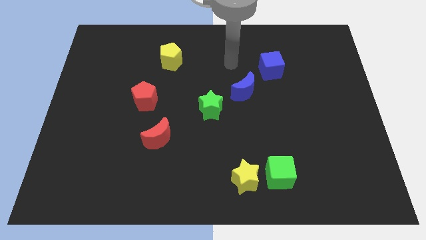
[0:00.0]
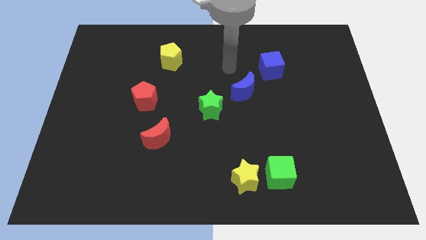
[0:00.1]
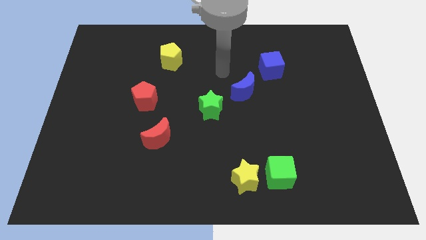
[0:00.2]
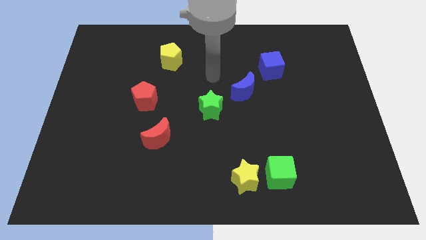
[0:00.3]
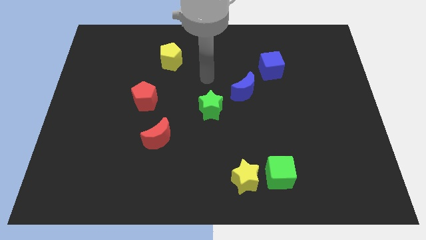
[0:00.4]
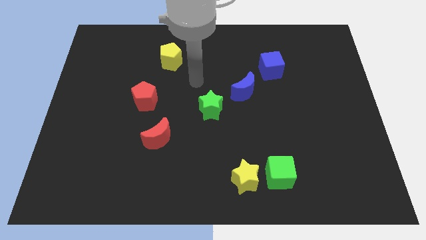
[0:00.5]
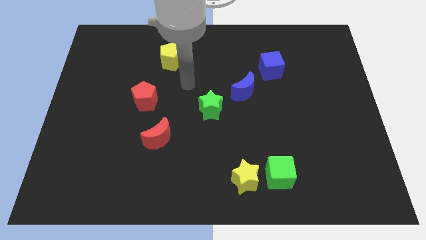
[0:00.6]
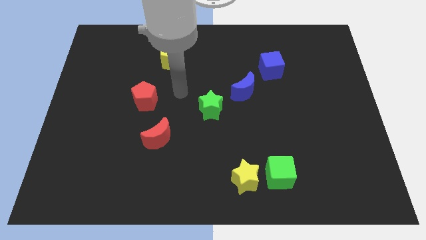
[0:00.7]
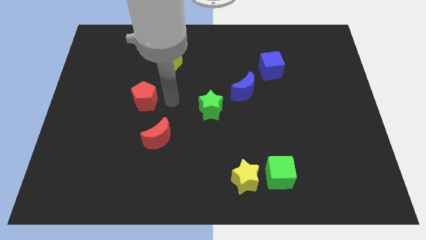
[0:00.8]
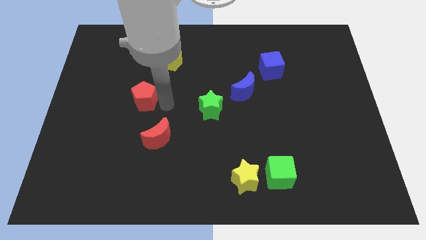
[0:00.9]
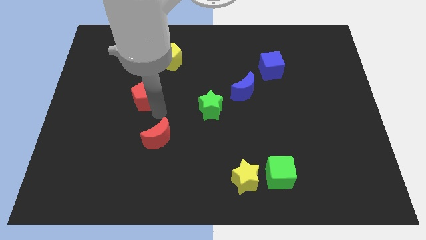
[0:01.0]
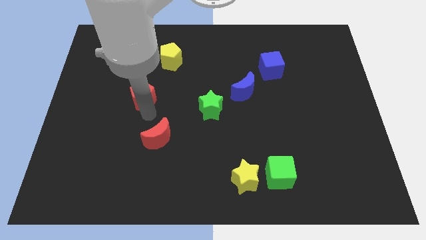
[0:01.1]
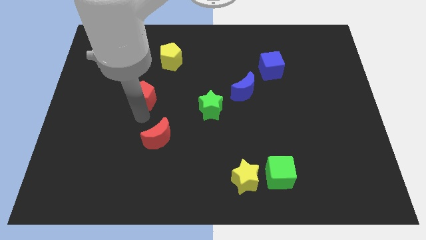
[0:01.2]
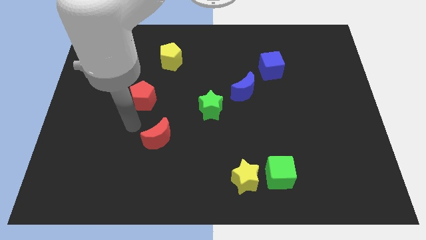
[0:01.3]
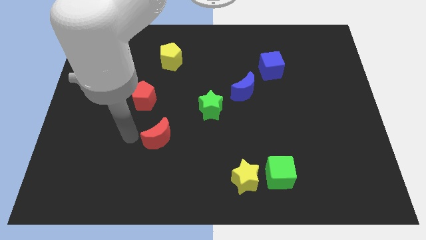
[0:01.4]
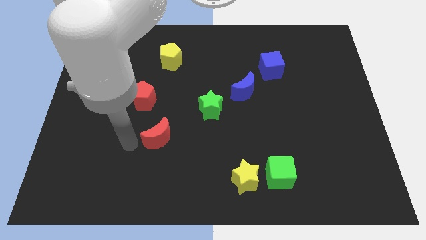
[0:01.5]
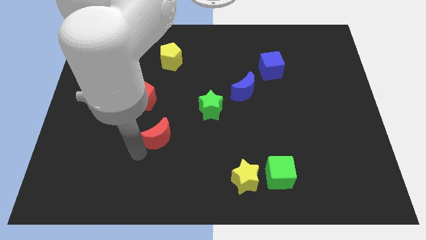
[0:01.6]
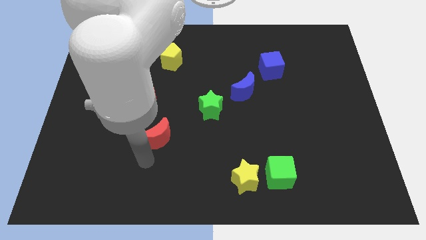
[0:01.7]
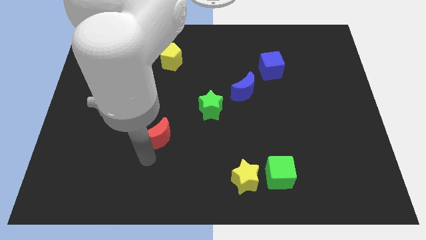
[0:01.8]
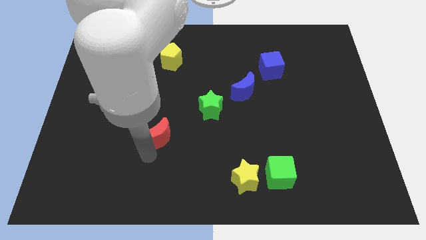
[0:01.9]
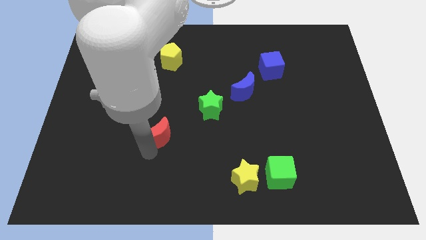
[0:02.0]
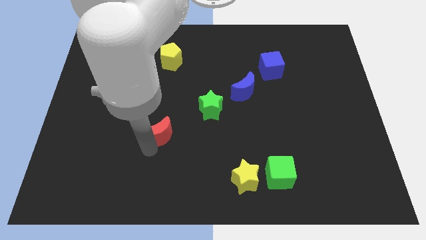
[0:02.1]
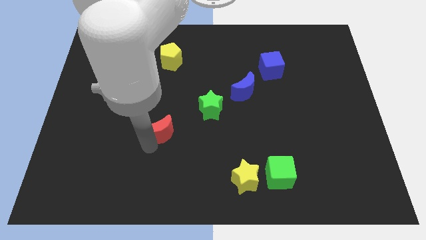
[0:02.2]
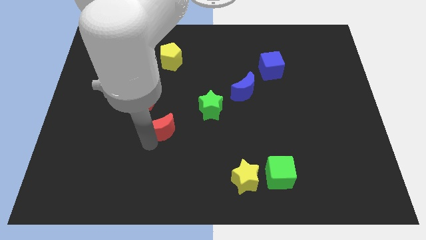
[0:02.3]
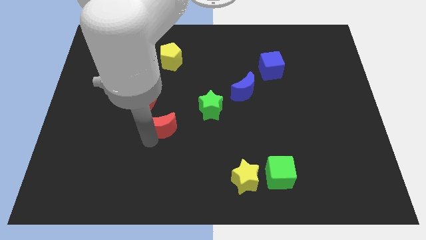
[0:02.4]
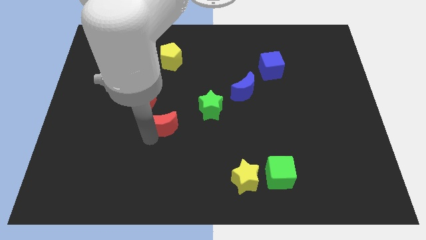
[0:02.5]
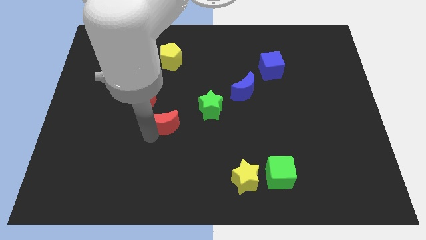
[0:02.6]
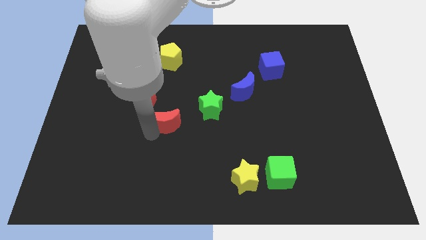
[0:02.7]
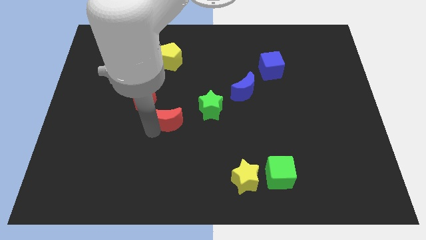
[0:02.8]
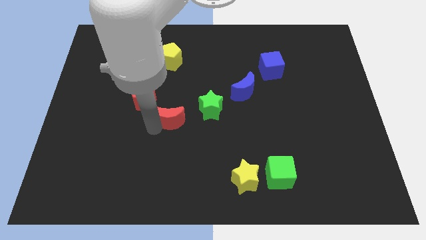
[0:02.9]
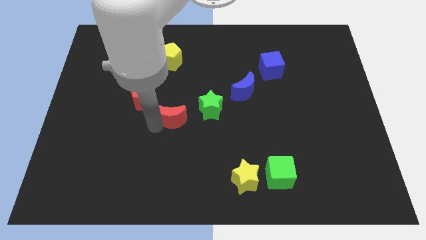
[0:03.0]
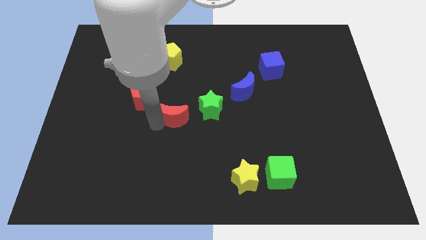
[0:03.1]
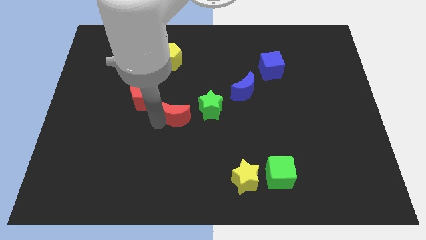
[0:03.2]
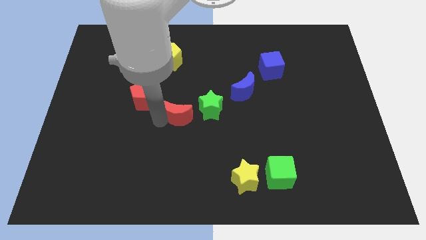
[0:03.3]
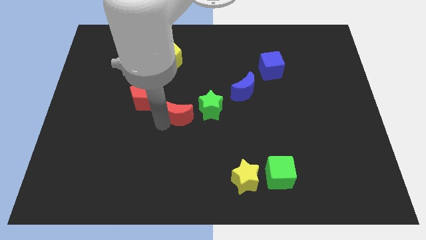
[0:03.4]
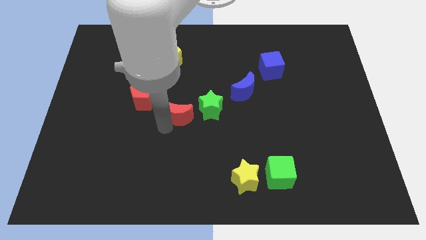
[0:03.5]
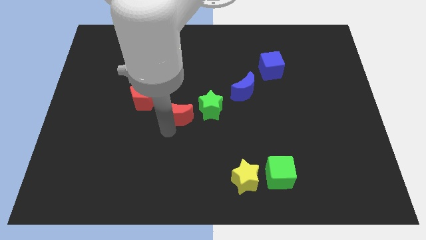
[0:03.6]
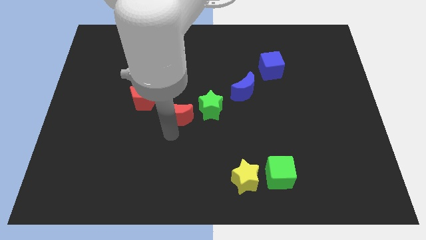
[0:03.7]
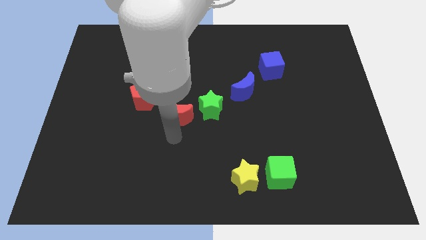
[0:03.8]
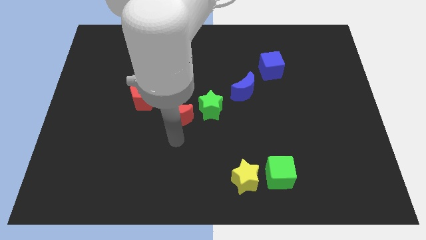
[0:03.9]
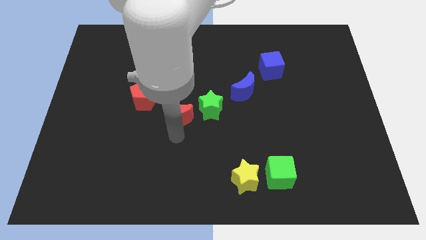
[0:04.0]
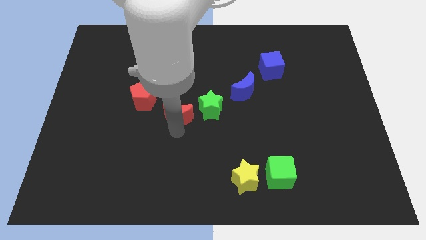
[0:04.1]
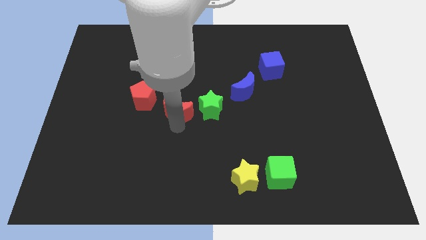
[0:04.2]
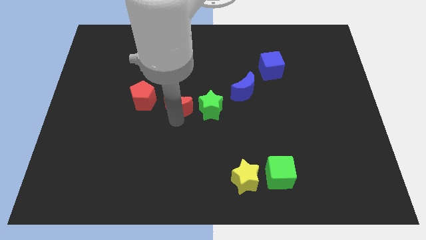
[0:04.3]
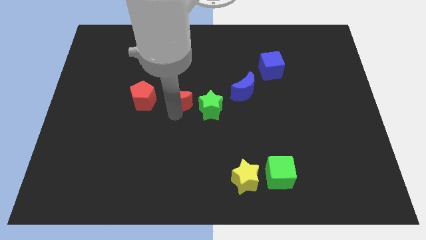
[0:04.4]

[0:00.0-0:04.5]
put the red moon to the top left of the green star

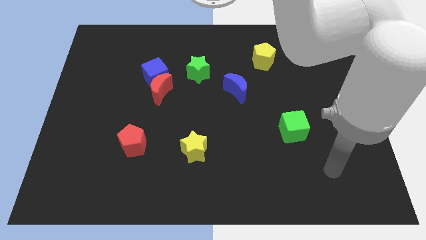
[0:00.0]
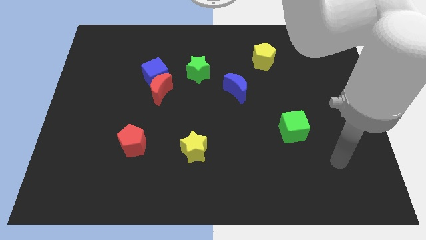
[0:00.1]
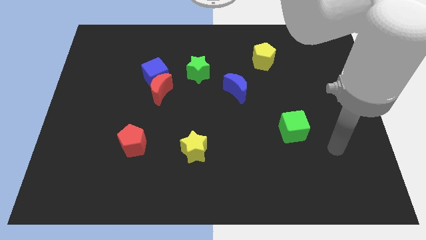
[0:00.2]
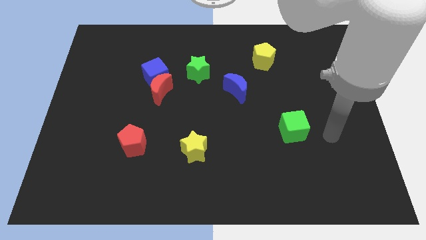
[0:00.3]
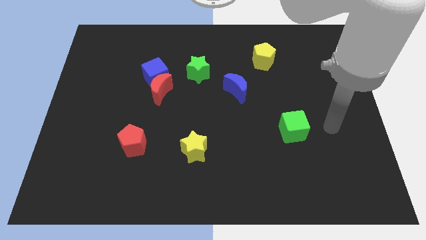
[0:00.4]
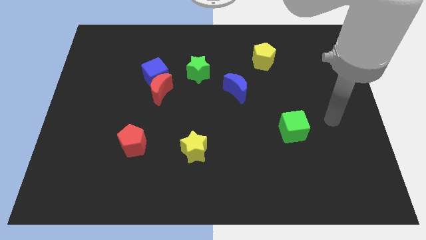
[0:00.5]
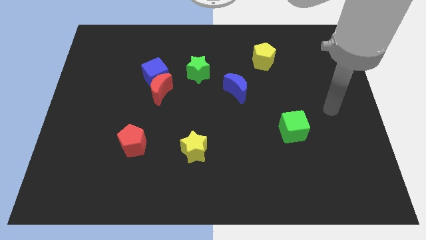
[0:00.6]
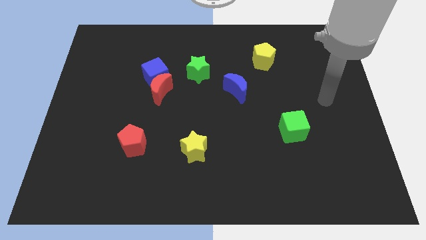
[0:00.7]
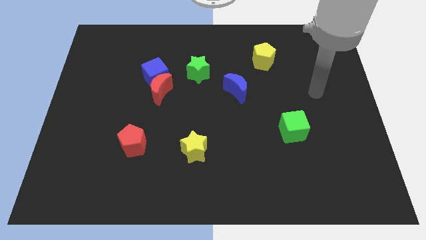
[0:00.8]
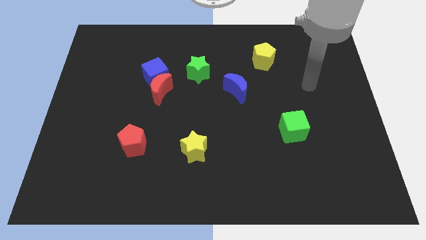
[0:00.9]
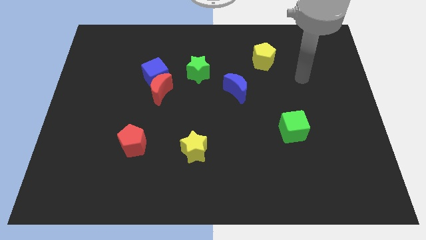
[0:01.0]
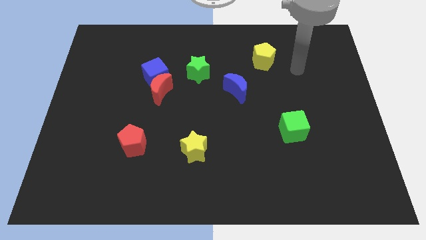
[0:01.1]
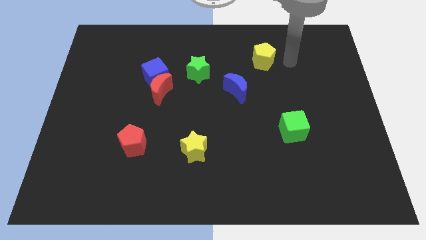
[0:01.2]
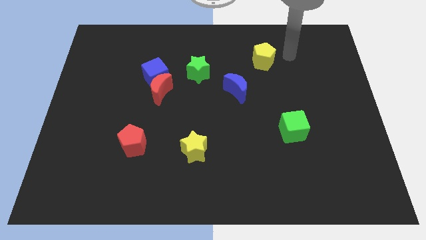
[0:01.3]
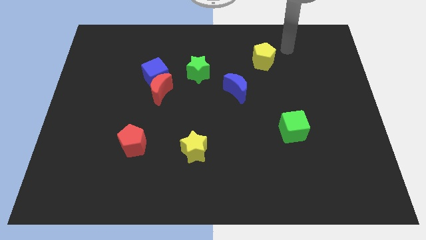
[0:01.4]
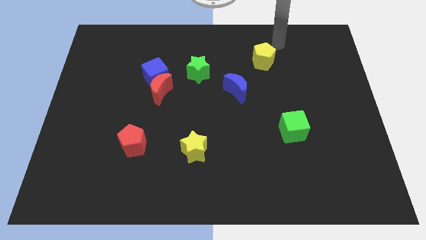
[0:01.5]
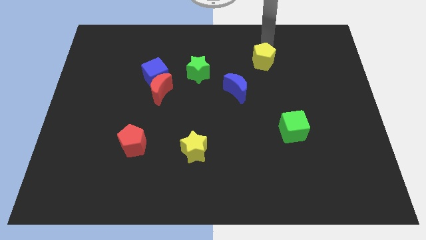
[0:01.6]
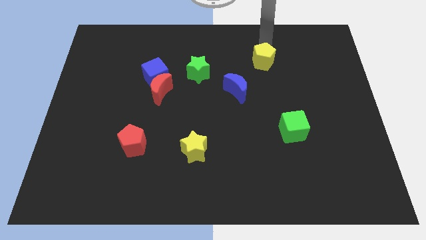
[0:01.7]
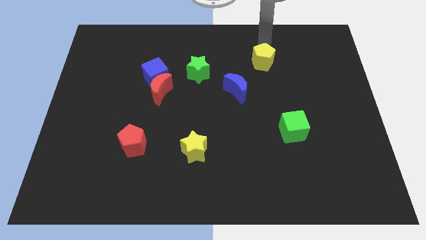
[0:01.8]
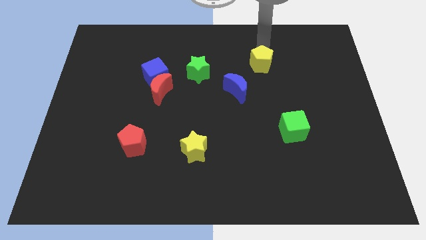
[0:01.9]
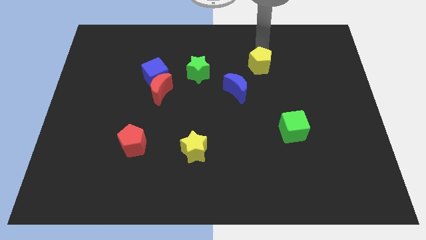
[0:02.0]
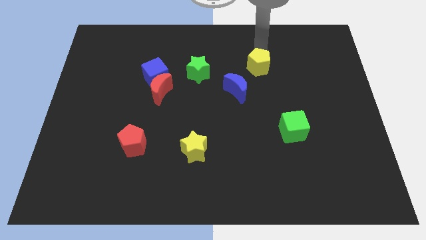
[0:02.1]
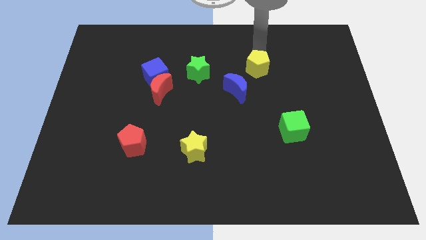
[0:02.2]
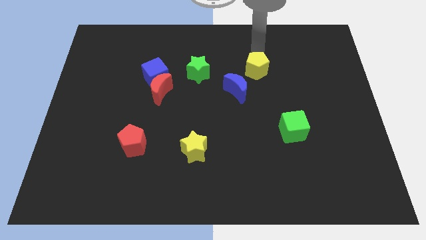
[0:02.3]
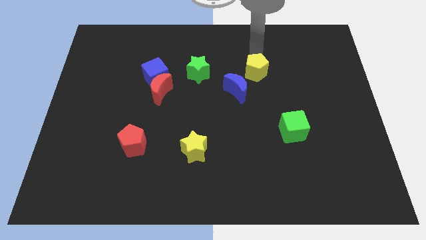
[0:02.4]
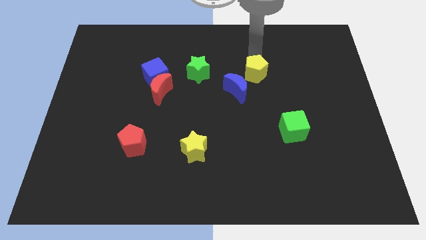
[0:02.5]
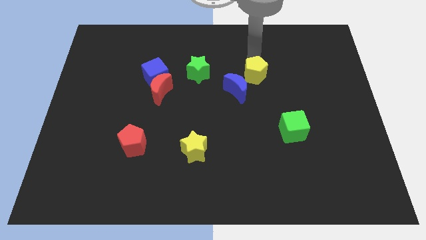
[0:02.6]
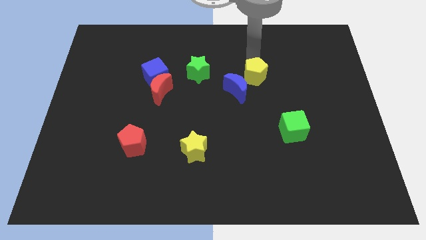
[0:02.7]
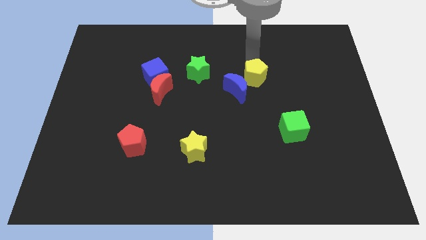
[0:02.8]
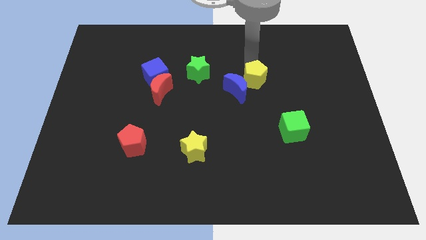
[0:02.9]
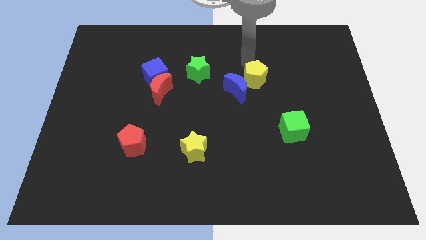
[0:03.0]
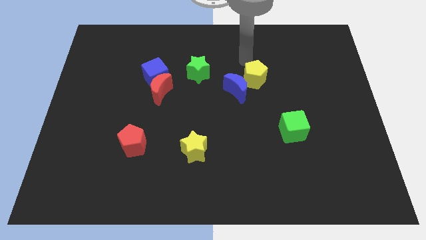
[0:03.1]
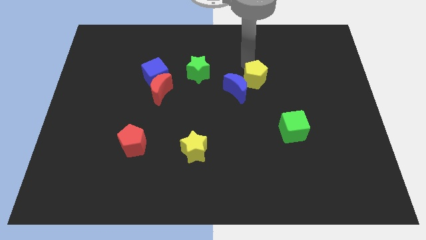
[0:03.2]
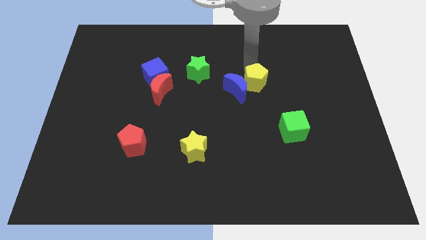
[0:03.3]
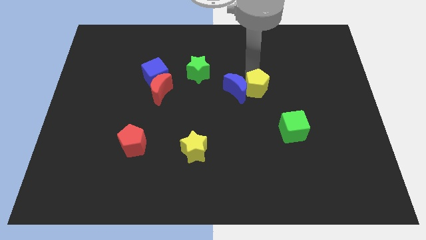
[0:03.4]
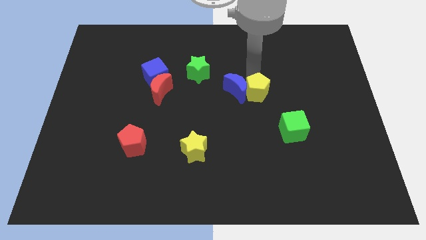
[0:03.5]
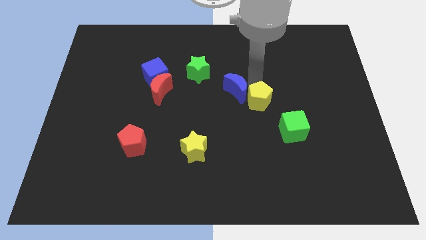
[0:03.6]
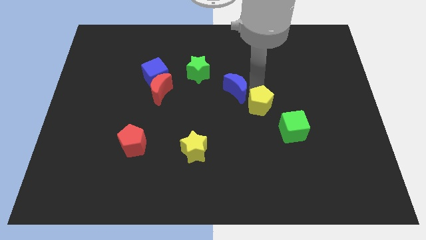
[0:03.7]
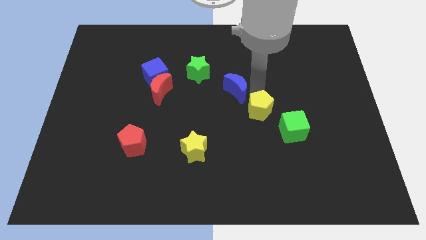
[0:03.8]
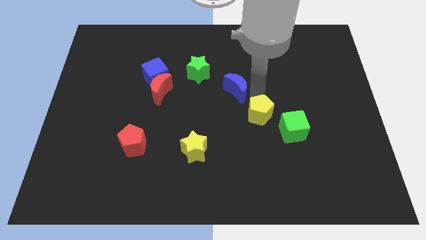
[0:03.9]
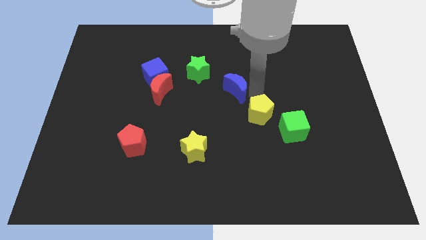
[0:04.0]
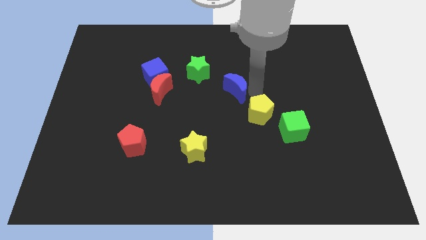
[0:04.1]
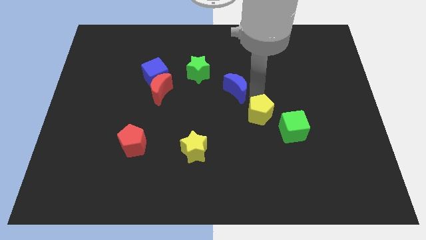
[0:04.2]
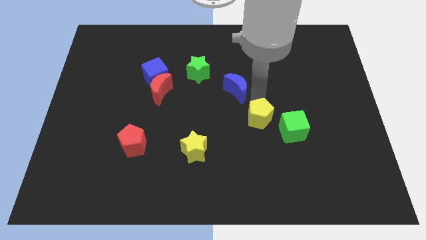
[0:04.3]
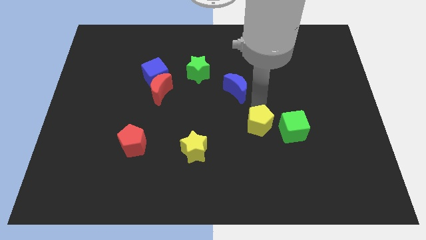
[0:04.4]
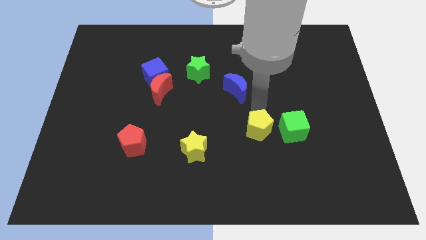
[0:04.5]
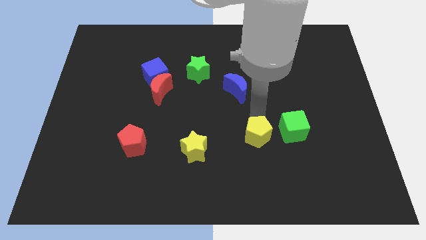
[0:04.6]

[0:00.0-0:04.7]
put the yellow pentagon diagonally down and to the left of the green cube
